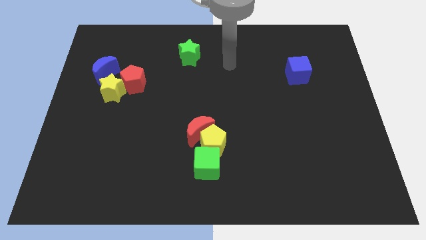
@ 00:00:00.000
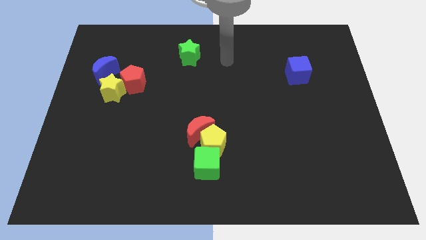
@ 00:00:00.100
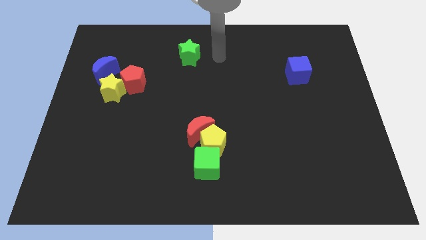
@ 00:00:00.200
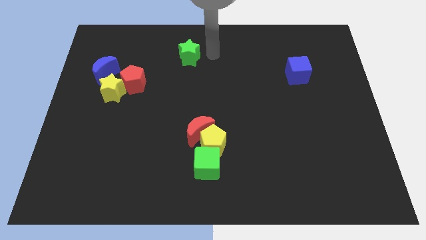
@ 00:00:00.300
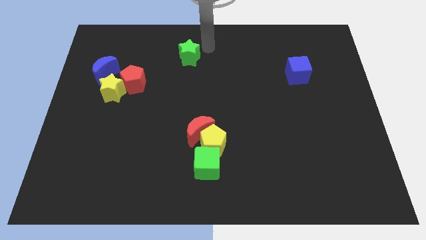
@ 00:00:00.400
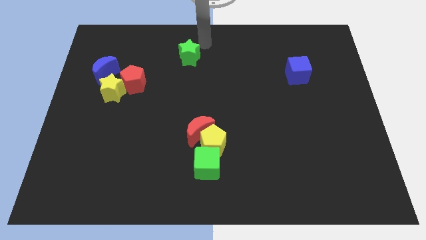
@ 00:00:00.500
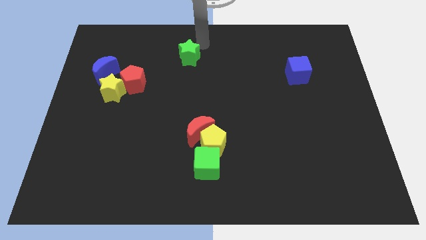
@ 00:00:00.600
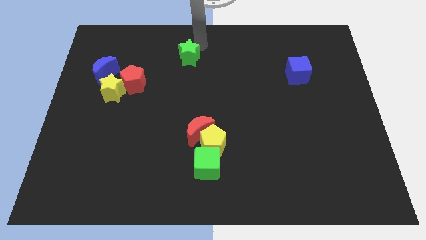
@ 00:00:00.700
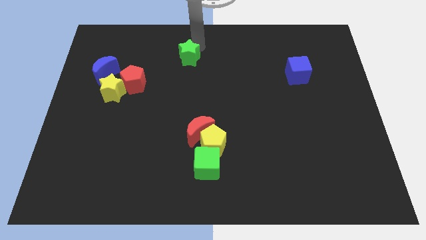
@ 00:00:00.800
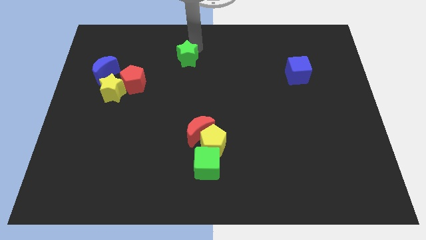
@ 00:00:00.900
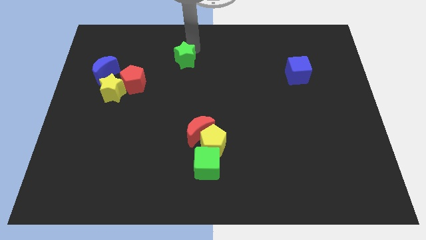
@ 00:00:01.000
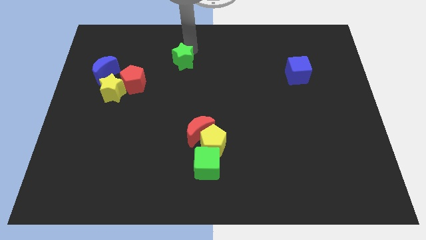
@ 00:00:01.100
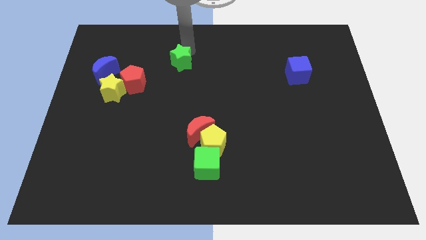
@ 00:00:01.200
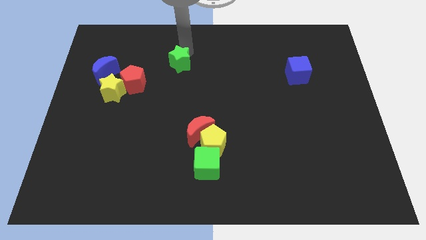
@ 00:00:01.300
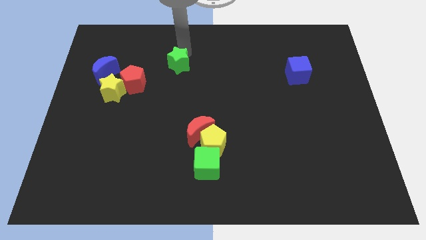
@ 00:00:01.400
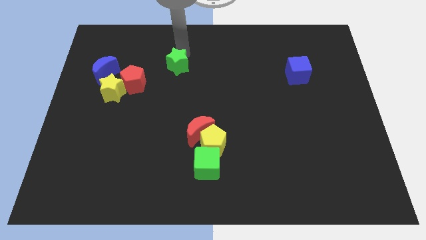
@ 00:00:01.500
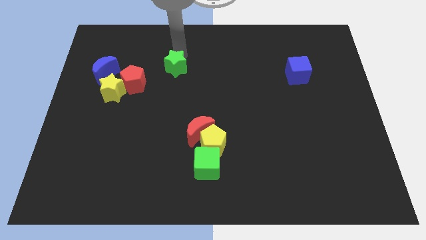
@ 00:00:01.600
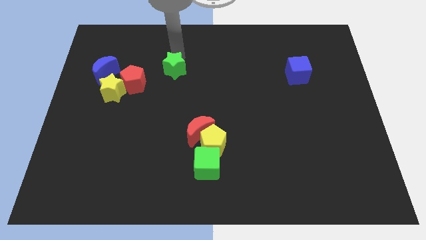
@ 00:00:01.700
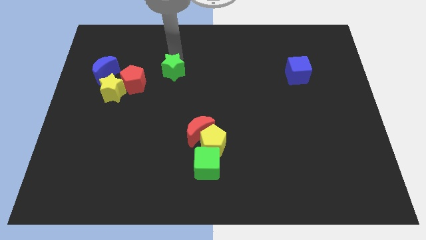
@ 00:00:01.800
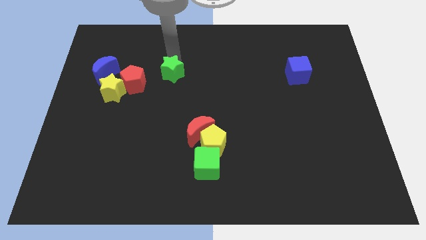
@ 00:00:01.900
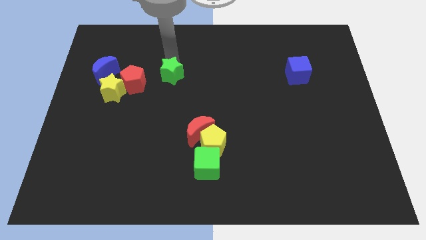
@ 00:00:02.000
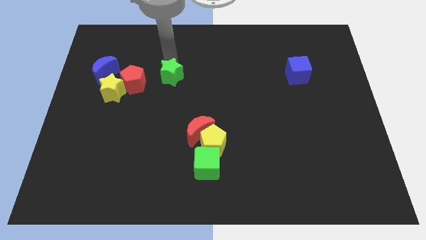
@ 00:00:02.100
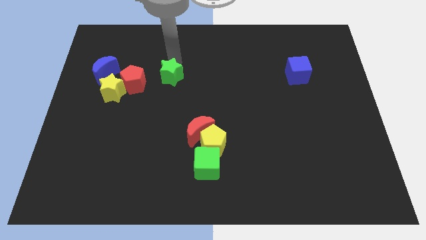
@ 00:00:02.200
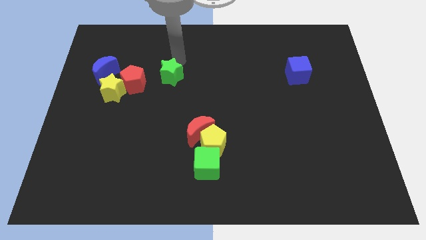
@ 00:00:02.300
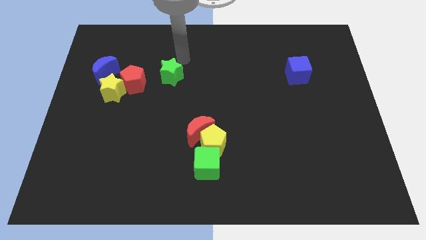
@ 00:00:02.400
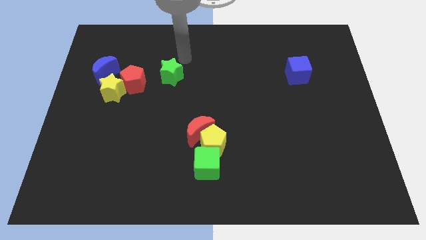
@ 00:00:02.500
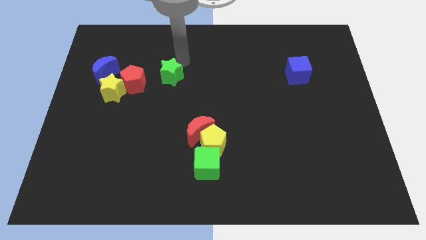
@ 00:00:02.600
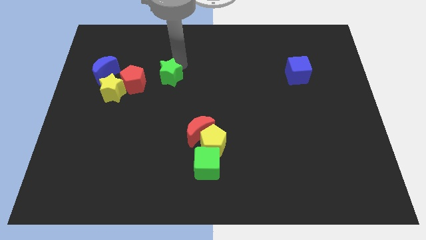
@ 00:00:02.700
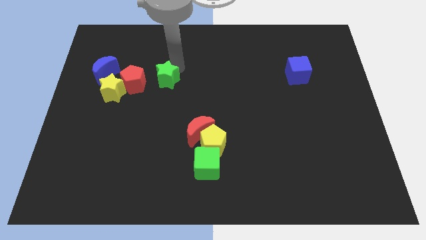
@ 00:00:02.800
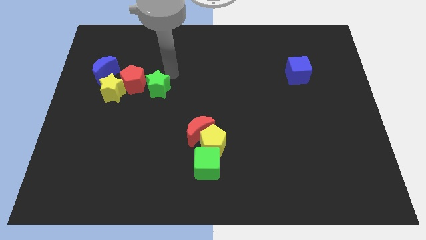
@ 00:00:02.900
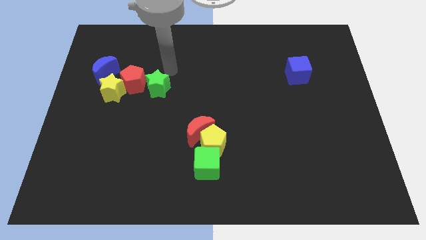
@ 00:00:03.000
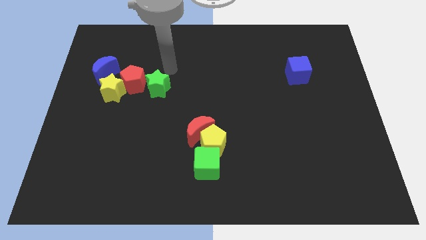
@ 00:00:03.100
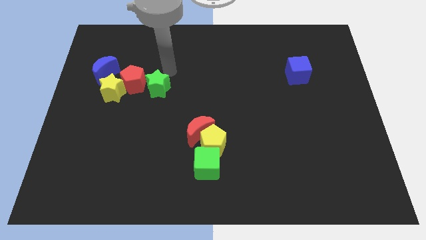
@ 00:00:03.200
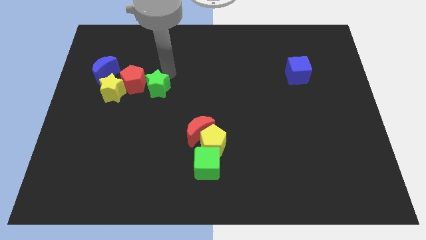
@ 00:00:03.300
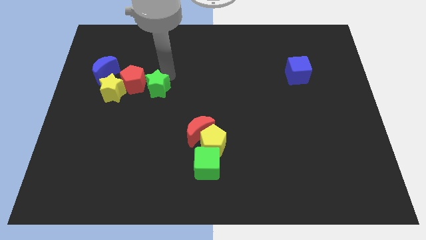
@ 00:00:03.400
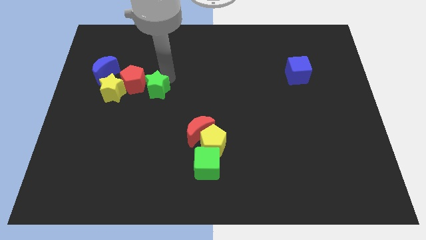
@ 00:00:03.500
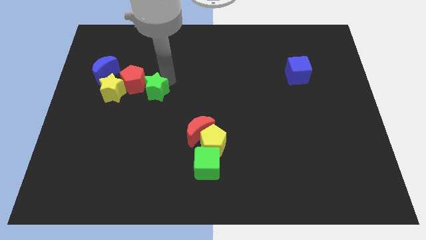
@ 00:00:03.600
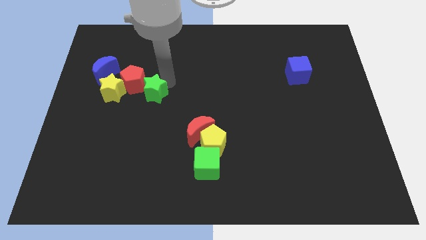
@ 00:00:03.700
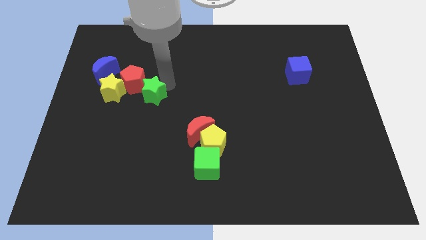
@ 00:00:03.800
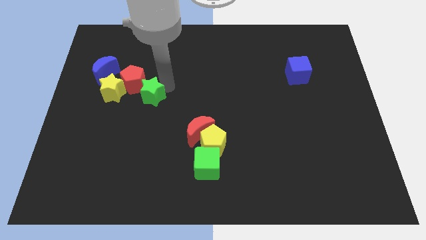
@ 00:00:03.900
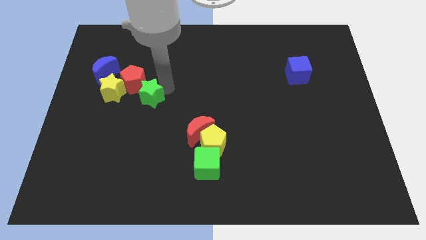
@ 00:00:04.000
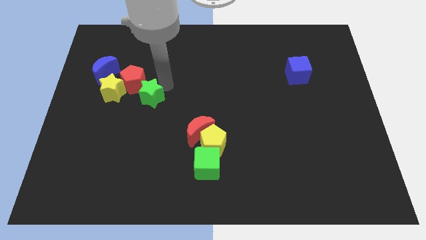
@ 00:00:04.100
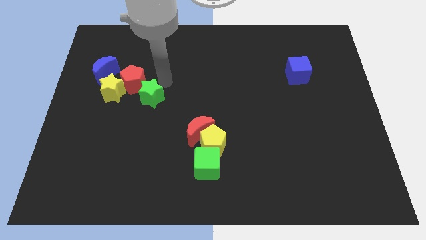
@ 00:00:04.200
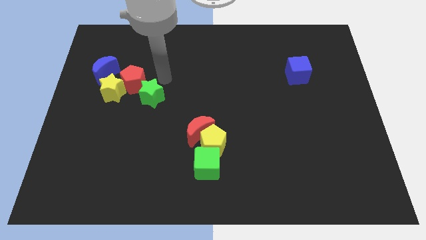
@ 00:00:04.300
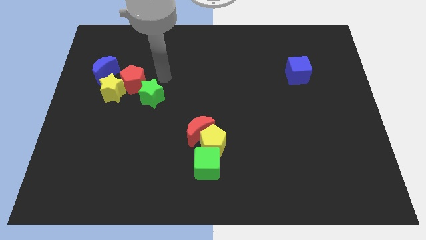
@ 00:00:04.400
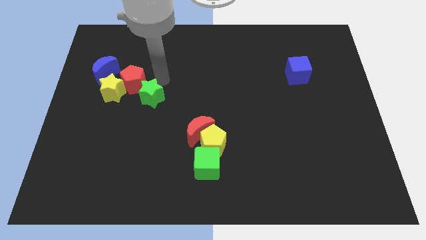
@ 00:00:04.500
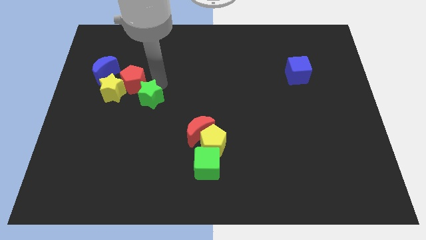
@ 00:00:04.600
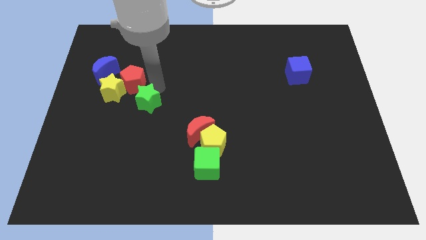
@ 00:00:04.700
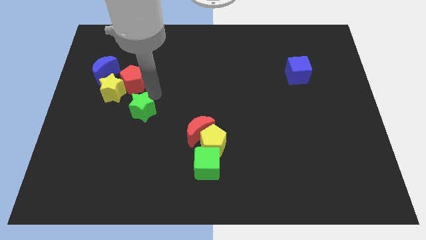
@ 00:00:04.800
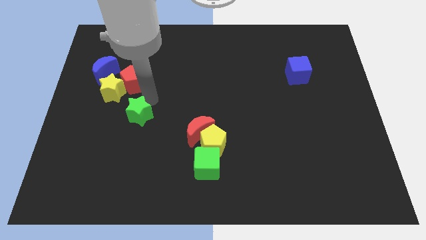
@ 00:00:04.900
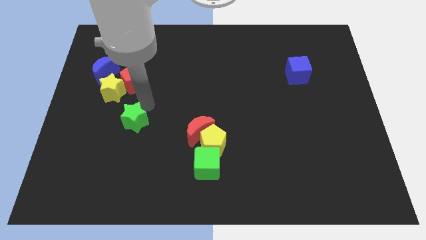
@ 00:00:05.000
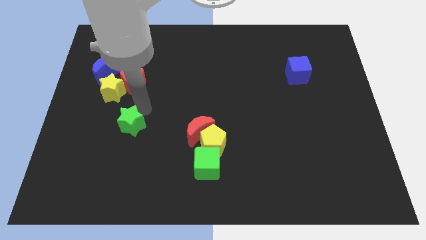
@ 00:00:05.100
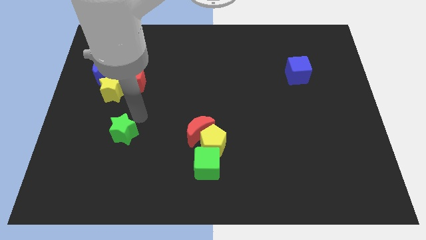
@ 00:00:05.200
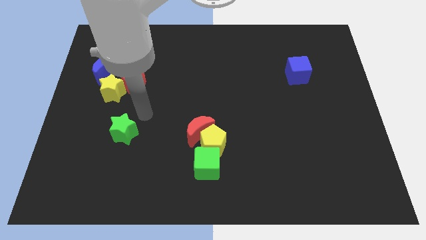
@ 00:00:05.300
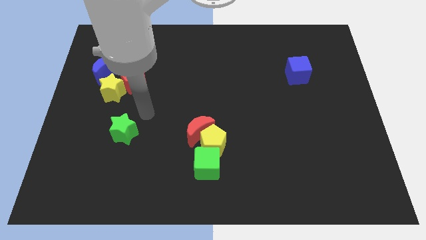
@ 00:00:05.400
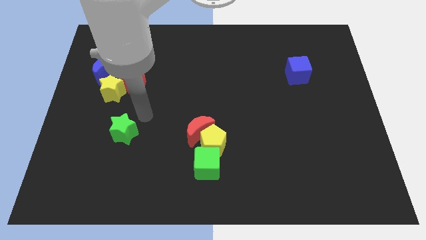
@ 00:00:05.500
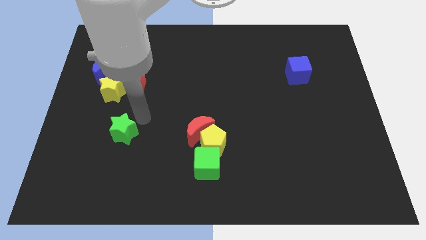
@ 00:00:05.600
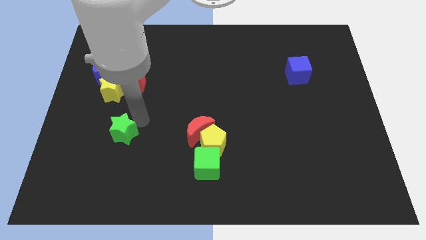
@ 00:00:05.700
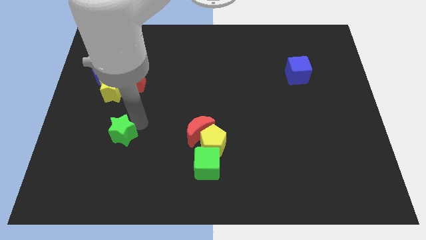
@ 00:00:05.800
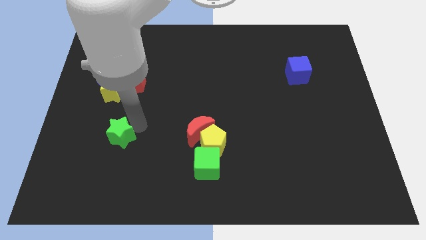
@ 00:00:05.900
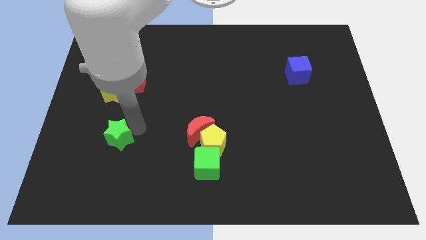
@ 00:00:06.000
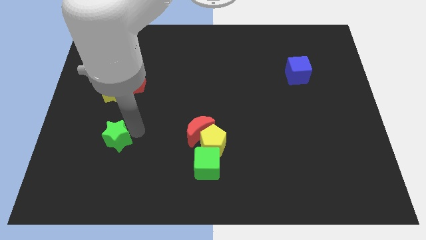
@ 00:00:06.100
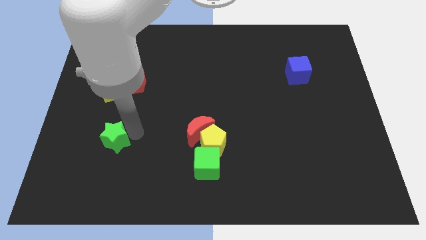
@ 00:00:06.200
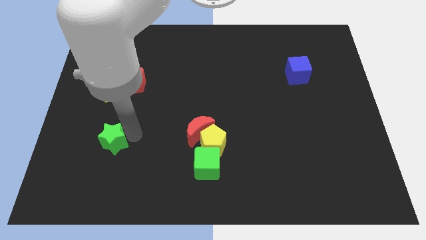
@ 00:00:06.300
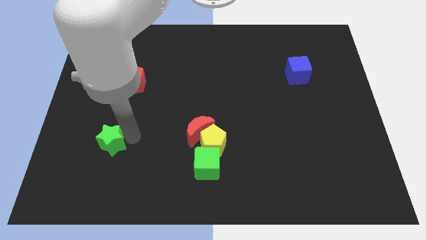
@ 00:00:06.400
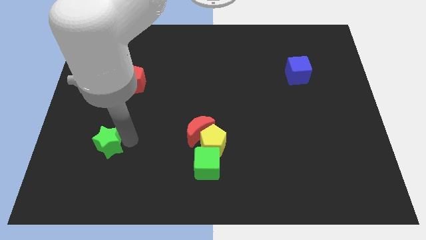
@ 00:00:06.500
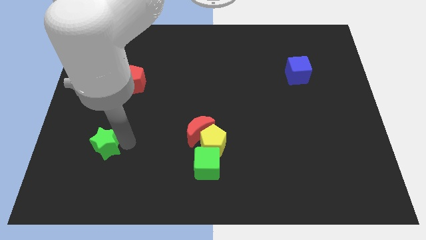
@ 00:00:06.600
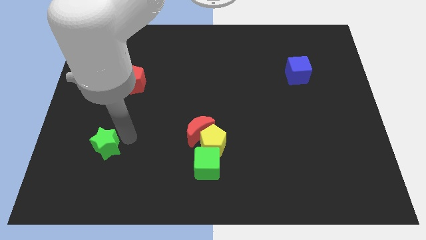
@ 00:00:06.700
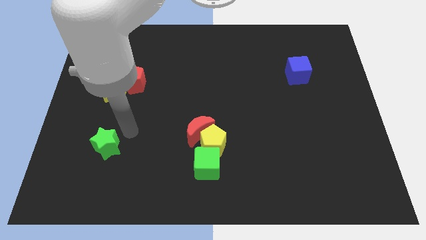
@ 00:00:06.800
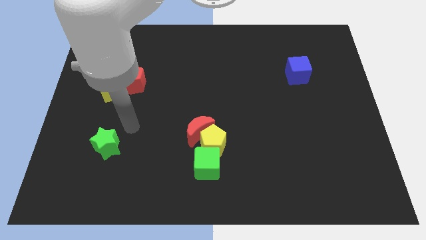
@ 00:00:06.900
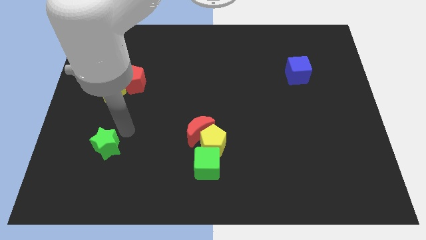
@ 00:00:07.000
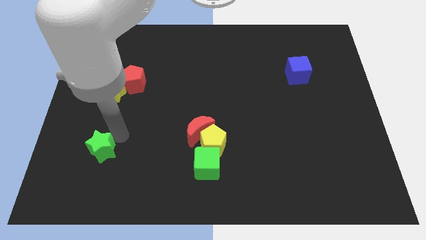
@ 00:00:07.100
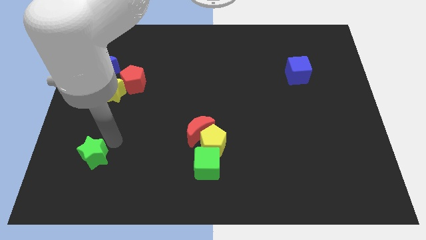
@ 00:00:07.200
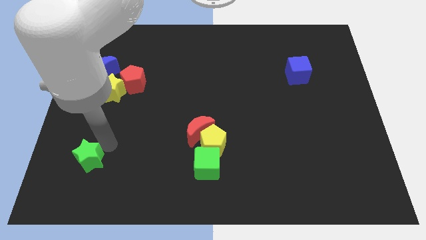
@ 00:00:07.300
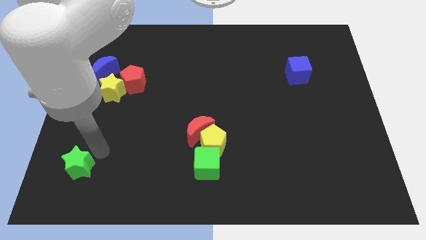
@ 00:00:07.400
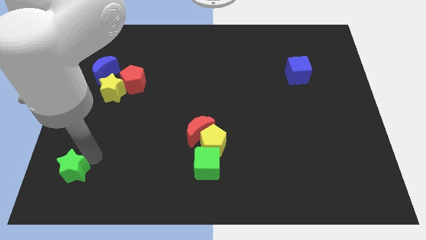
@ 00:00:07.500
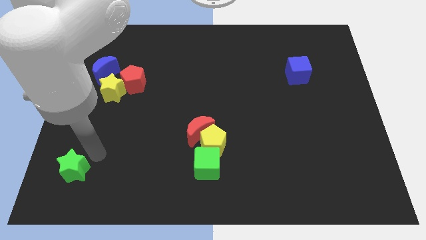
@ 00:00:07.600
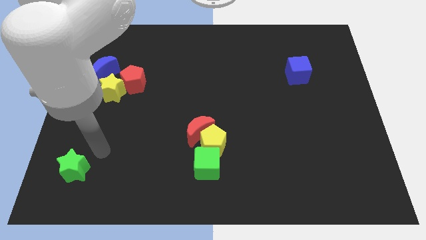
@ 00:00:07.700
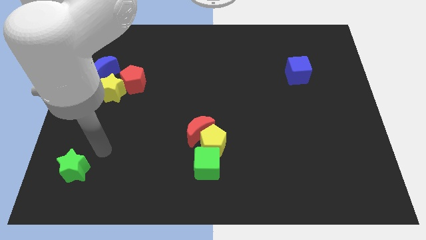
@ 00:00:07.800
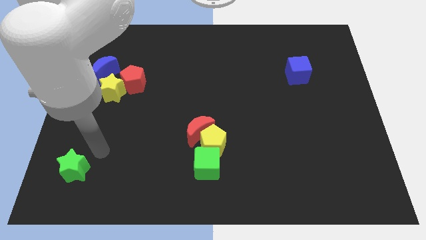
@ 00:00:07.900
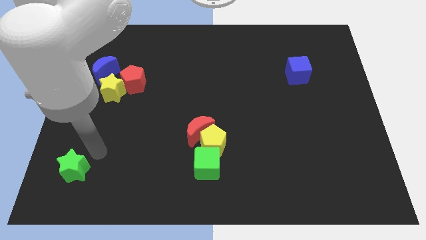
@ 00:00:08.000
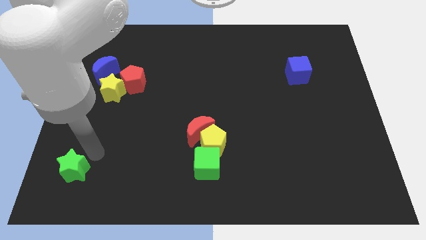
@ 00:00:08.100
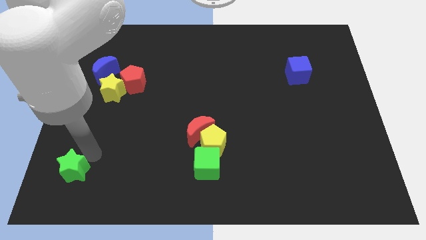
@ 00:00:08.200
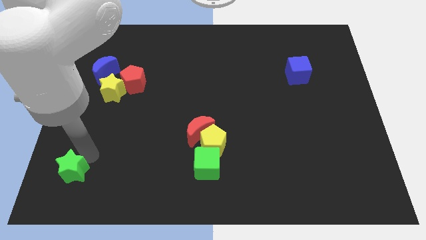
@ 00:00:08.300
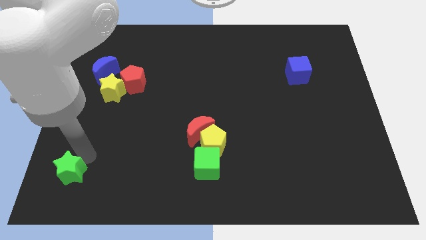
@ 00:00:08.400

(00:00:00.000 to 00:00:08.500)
put the green star to the bottom left corner
